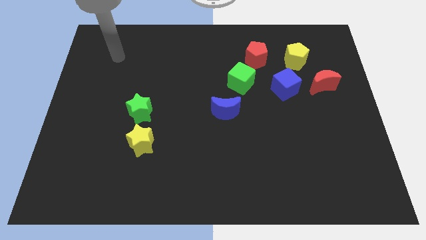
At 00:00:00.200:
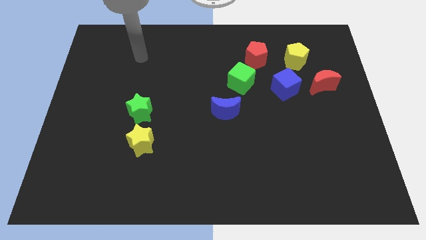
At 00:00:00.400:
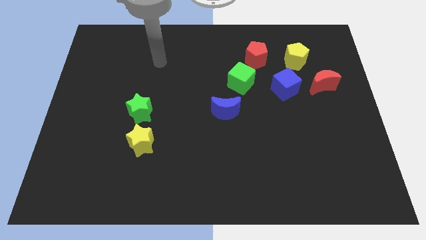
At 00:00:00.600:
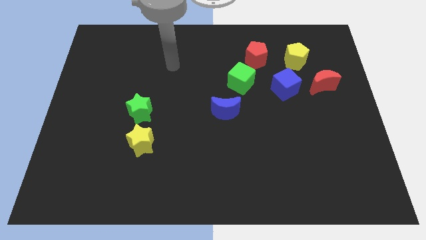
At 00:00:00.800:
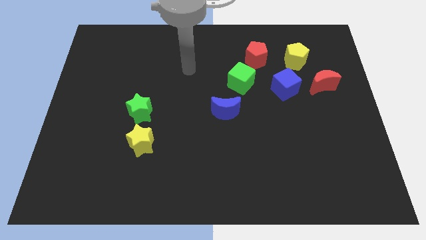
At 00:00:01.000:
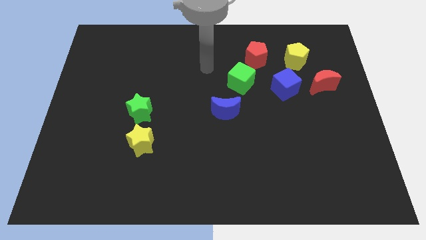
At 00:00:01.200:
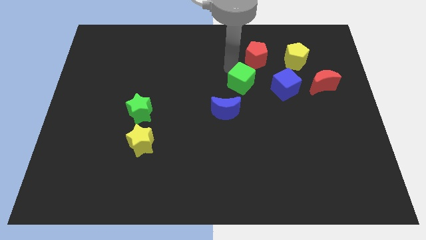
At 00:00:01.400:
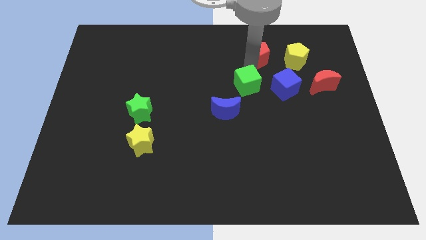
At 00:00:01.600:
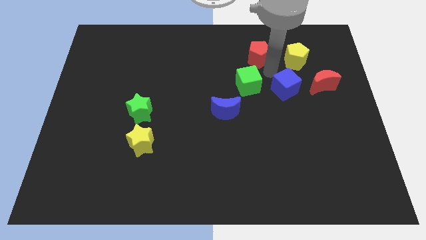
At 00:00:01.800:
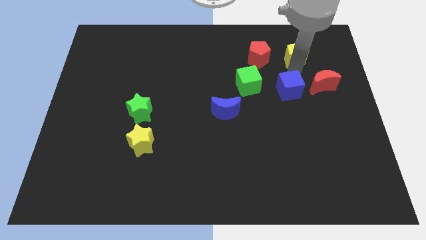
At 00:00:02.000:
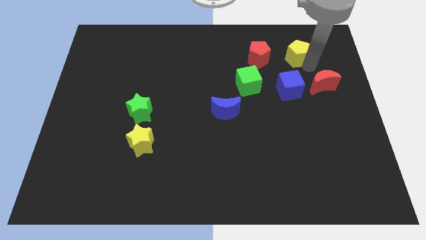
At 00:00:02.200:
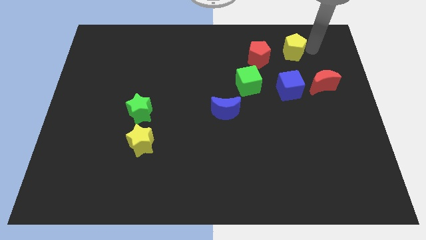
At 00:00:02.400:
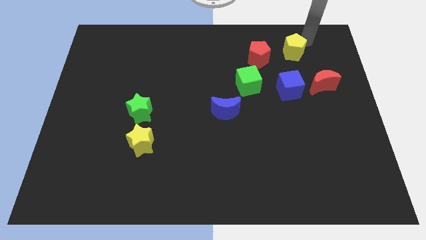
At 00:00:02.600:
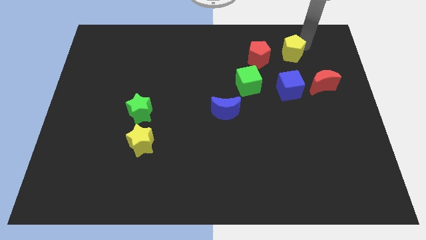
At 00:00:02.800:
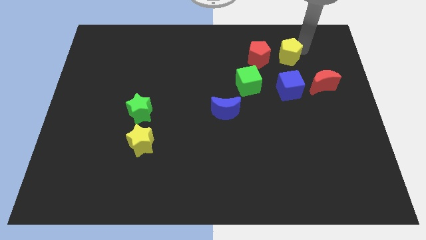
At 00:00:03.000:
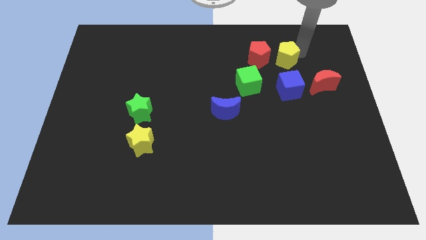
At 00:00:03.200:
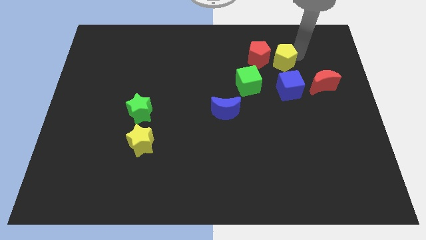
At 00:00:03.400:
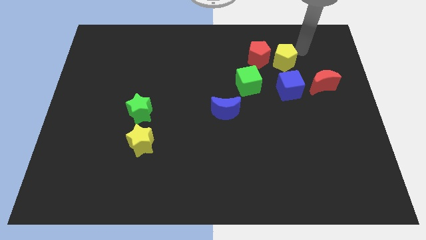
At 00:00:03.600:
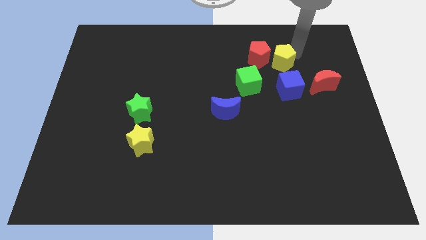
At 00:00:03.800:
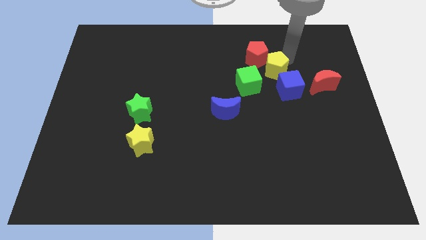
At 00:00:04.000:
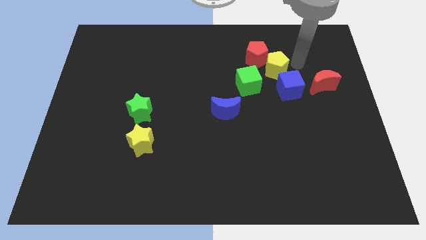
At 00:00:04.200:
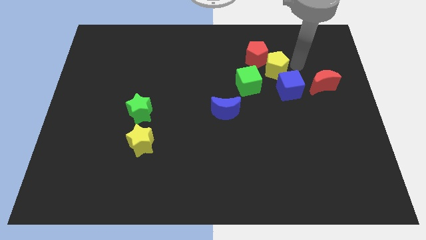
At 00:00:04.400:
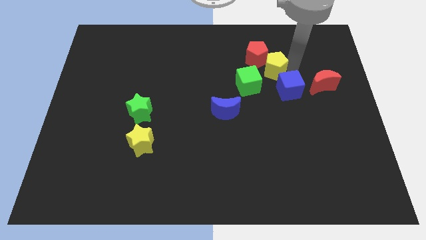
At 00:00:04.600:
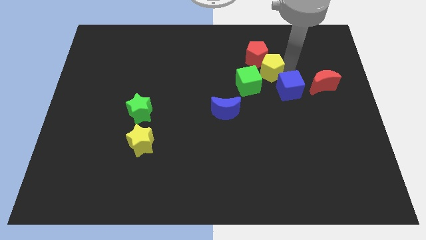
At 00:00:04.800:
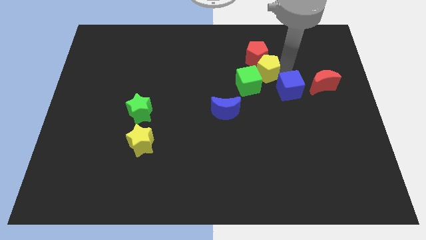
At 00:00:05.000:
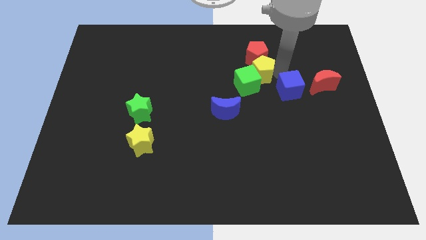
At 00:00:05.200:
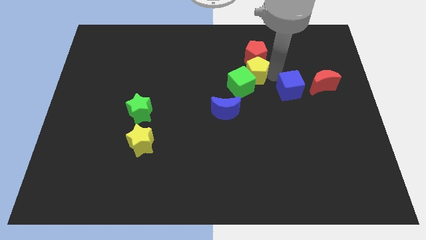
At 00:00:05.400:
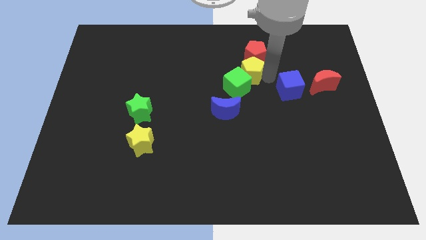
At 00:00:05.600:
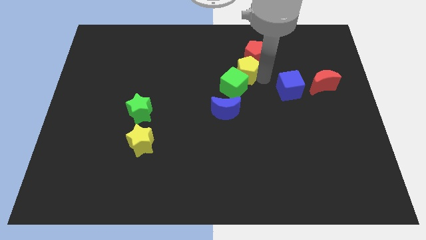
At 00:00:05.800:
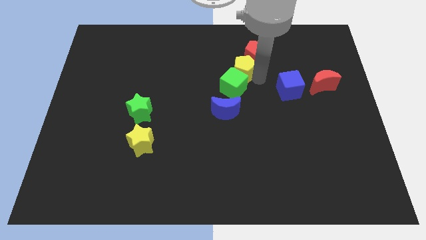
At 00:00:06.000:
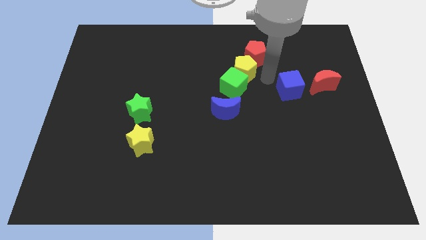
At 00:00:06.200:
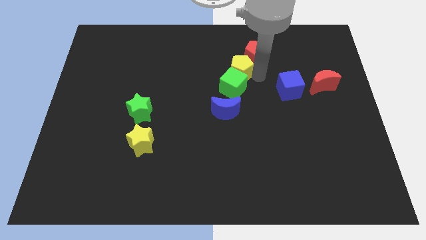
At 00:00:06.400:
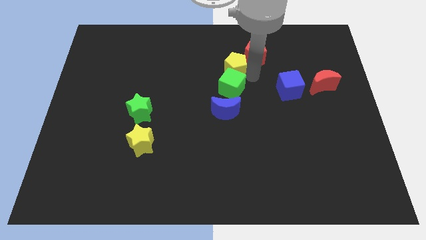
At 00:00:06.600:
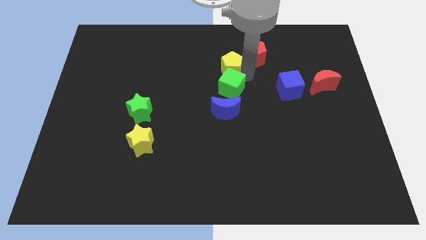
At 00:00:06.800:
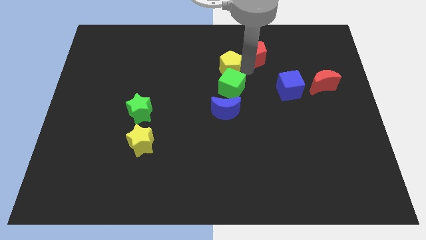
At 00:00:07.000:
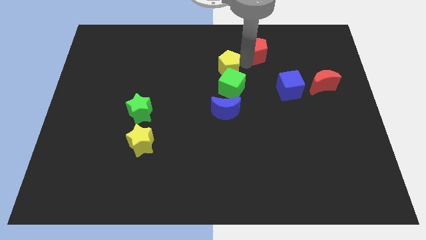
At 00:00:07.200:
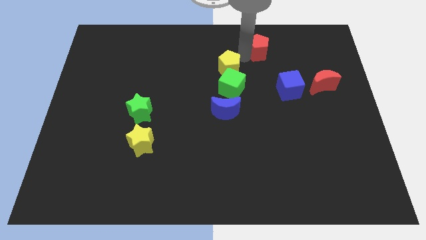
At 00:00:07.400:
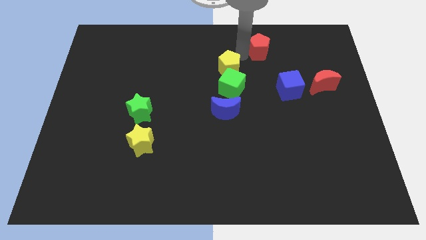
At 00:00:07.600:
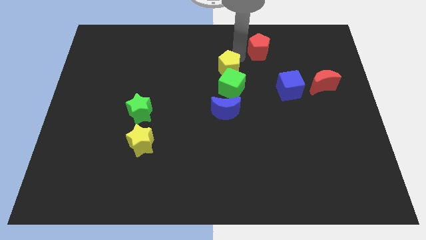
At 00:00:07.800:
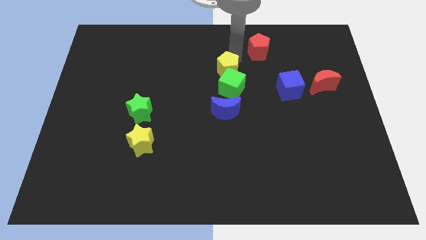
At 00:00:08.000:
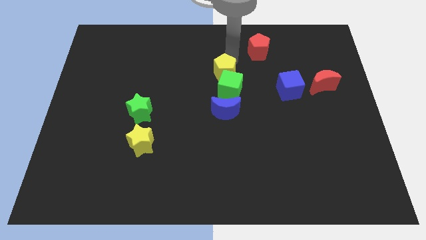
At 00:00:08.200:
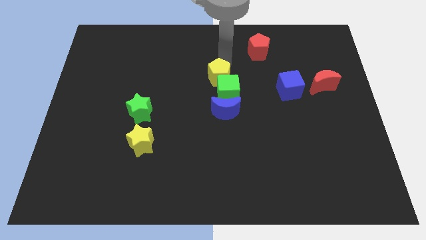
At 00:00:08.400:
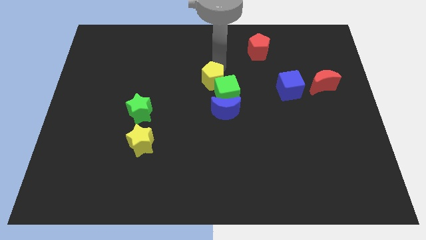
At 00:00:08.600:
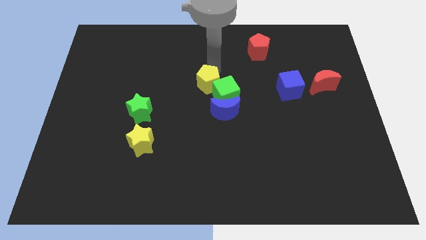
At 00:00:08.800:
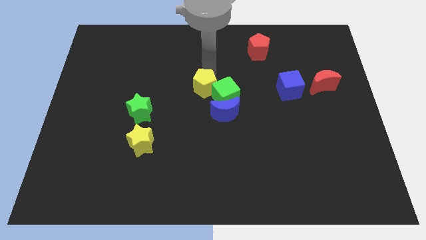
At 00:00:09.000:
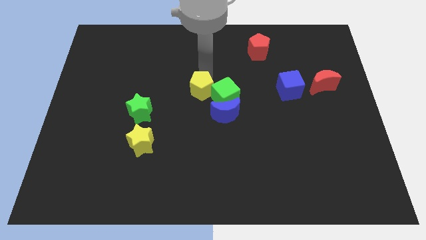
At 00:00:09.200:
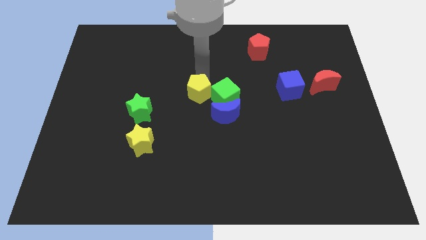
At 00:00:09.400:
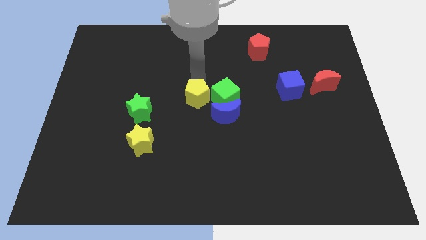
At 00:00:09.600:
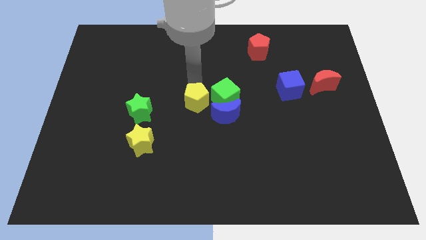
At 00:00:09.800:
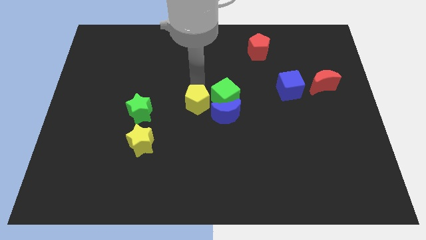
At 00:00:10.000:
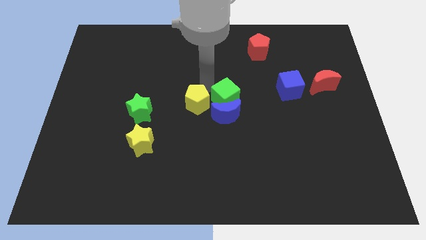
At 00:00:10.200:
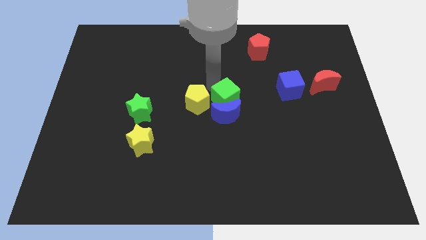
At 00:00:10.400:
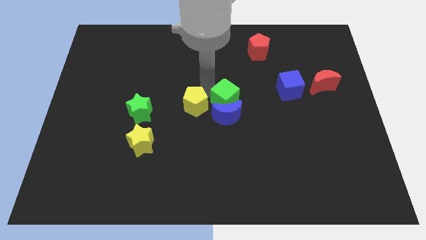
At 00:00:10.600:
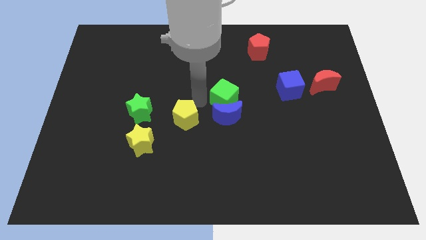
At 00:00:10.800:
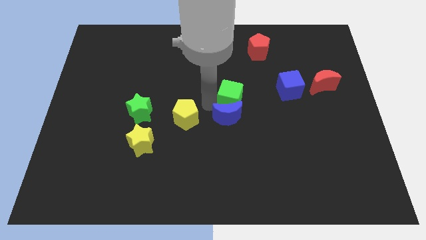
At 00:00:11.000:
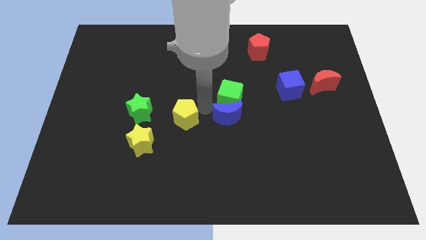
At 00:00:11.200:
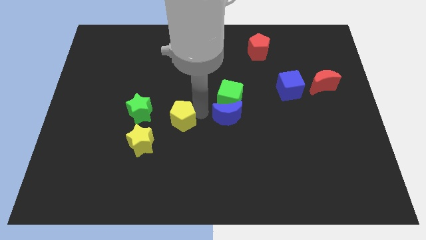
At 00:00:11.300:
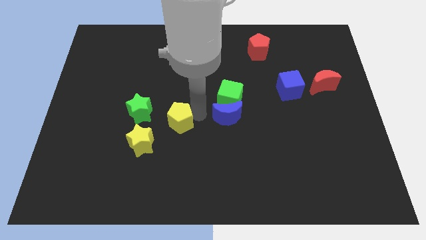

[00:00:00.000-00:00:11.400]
slide the yellow pentagon to the bottom right of the green star
